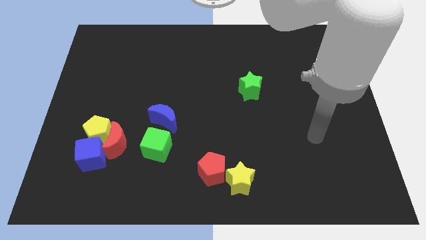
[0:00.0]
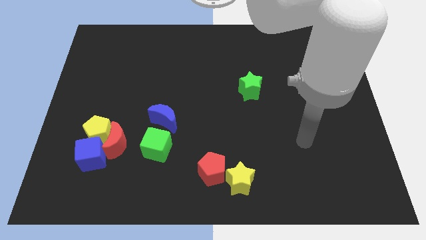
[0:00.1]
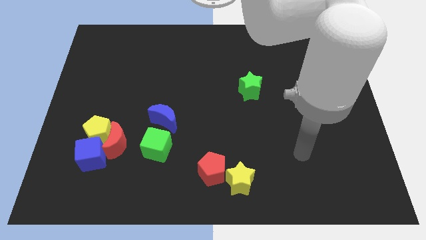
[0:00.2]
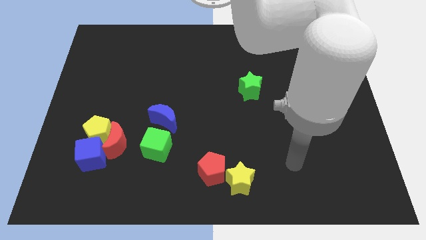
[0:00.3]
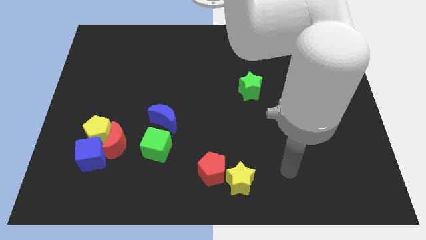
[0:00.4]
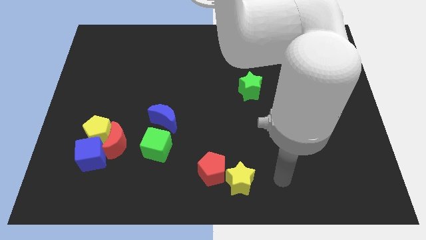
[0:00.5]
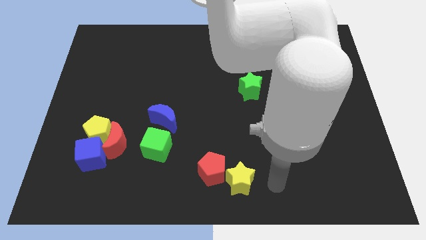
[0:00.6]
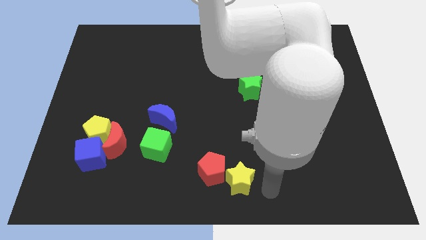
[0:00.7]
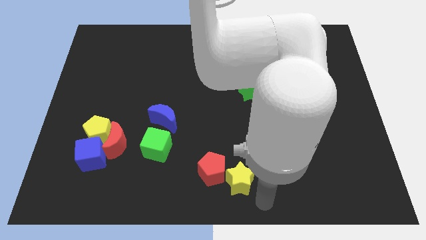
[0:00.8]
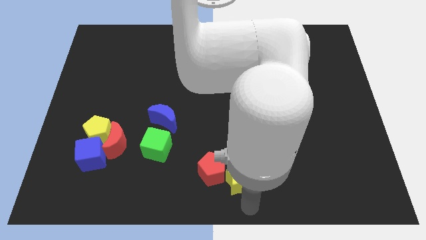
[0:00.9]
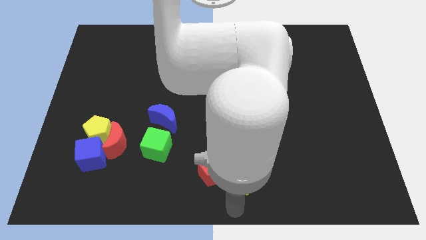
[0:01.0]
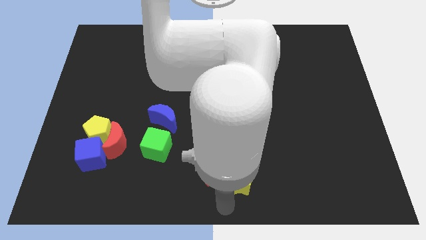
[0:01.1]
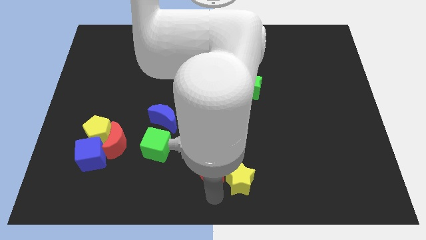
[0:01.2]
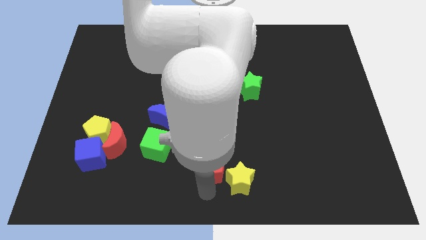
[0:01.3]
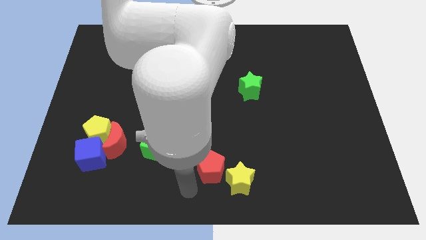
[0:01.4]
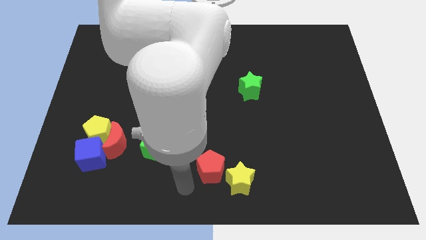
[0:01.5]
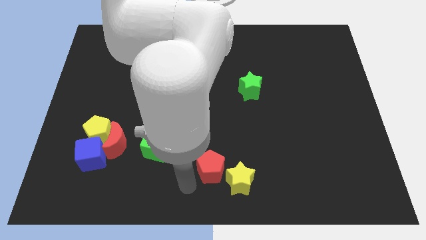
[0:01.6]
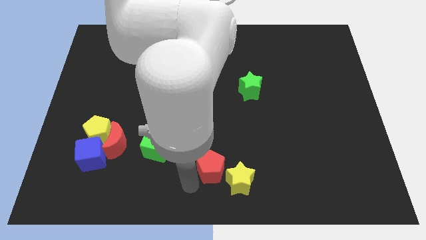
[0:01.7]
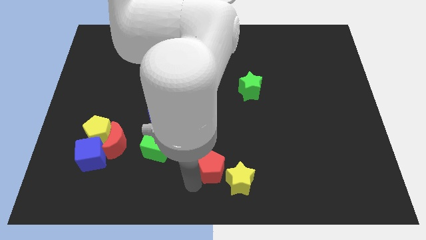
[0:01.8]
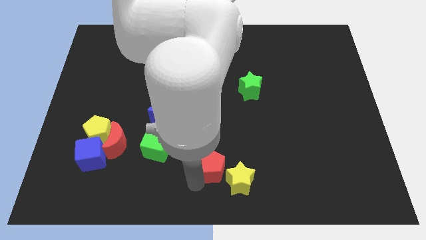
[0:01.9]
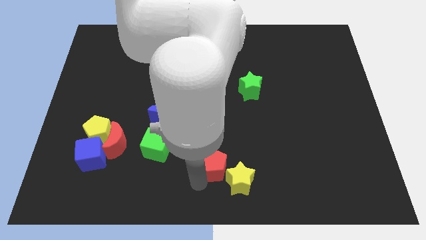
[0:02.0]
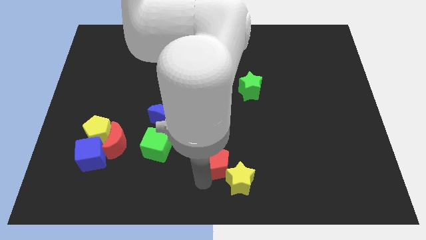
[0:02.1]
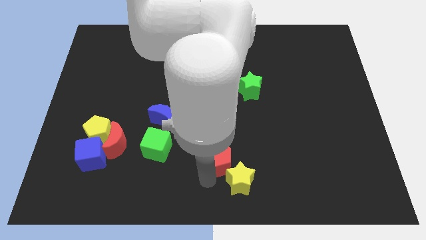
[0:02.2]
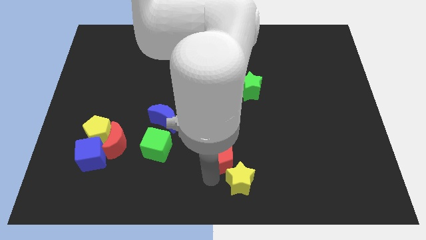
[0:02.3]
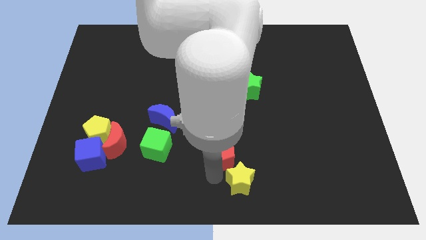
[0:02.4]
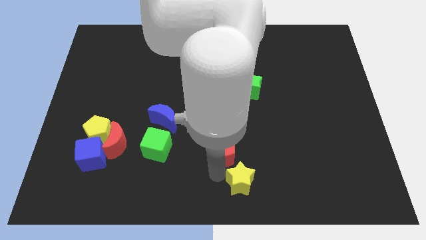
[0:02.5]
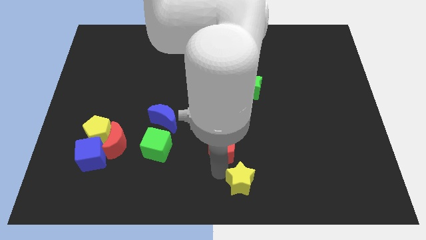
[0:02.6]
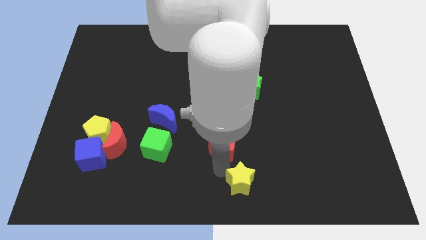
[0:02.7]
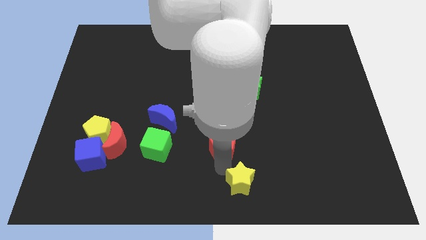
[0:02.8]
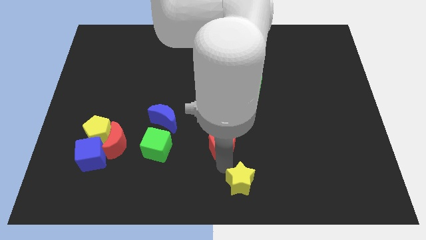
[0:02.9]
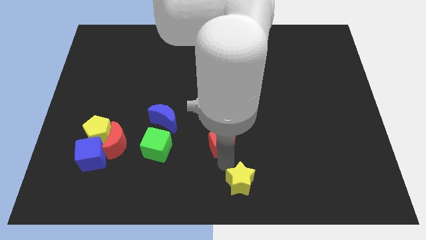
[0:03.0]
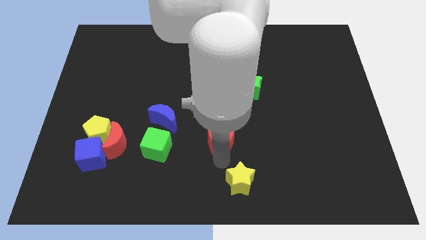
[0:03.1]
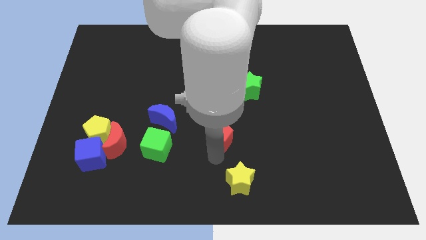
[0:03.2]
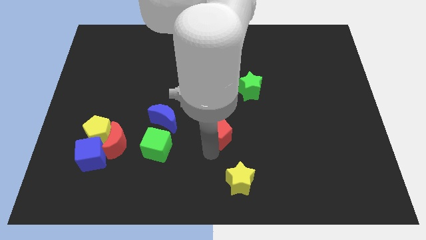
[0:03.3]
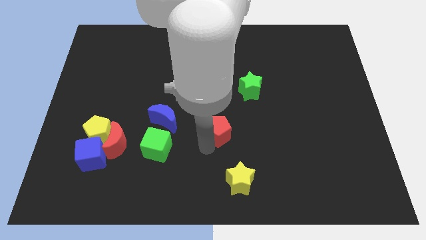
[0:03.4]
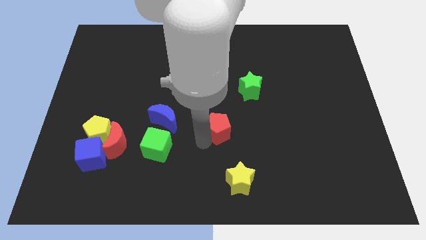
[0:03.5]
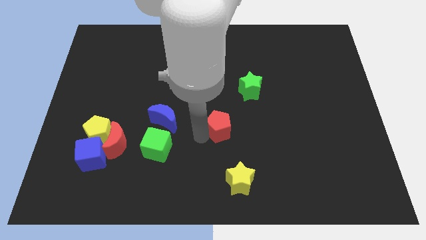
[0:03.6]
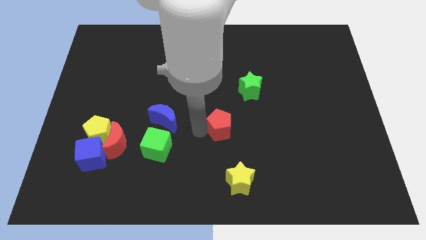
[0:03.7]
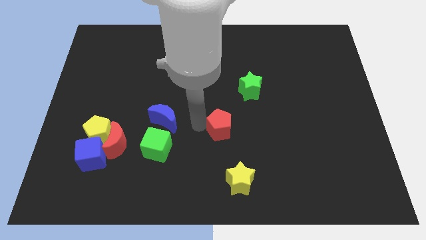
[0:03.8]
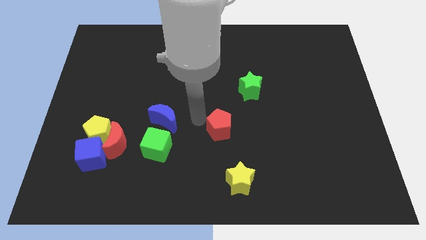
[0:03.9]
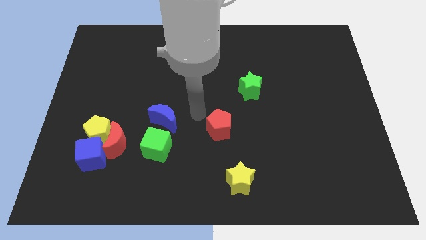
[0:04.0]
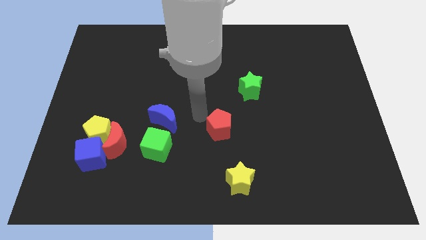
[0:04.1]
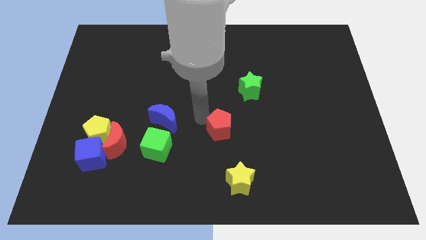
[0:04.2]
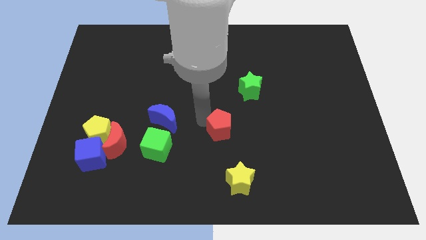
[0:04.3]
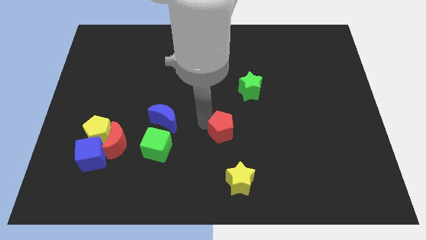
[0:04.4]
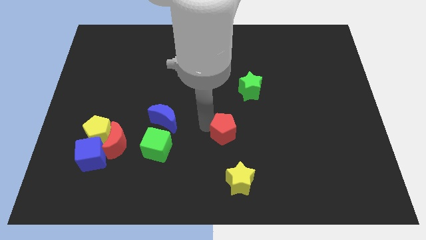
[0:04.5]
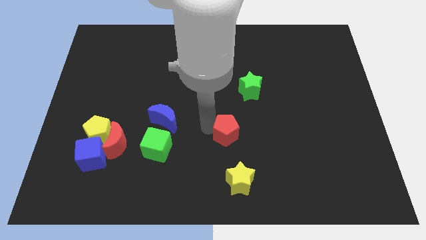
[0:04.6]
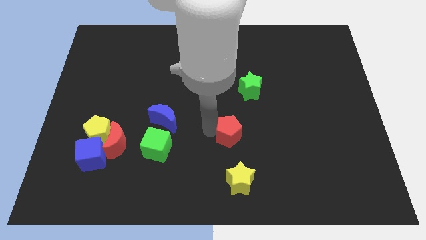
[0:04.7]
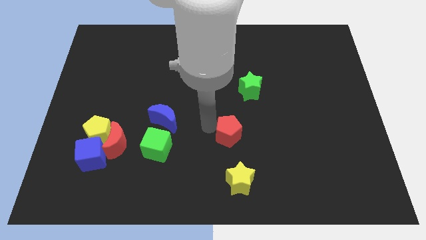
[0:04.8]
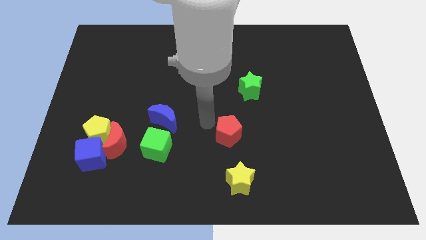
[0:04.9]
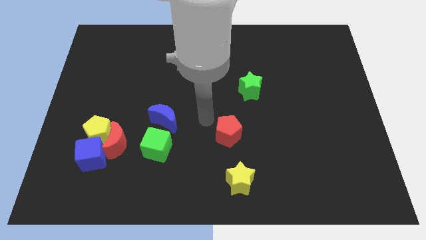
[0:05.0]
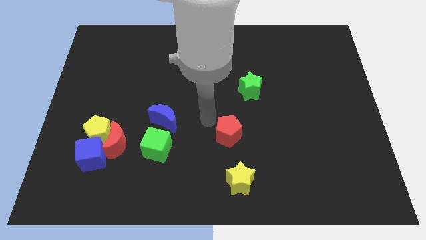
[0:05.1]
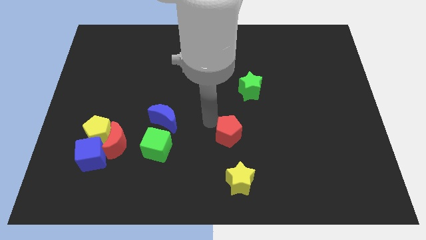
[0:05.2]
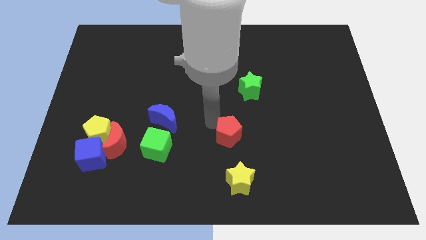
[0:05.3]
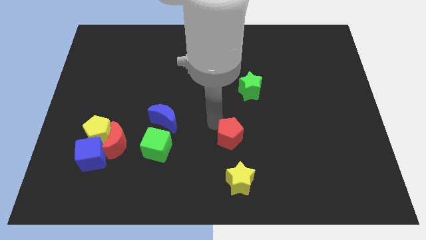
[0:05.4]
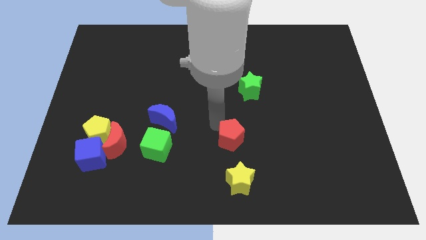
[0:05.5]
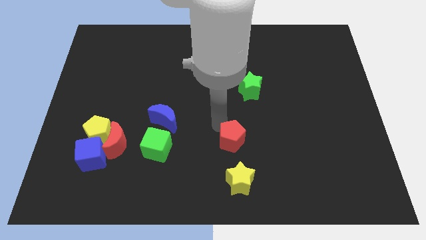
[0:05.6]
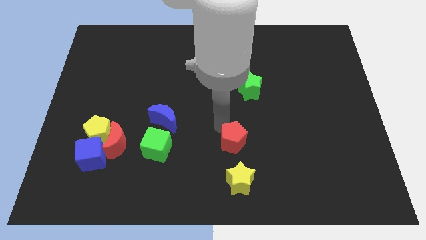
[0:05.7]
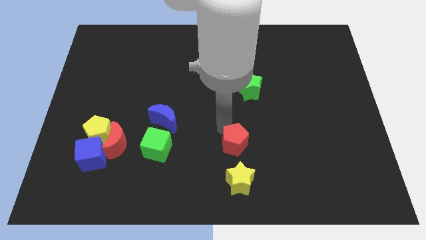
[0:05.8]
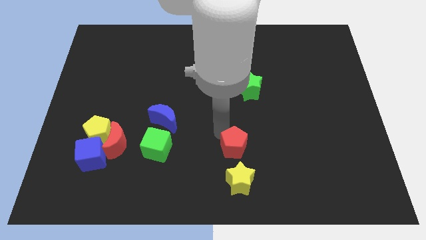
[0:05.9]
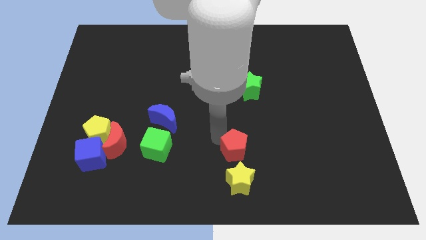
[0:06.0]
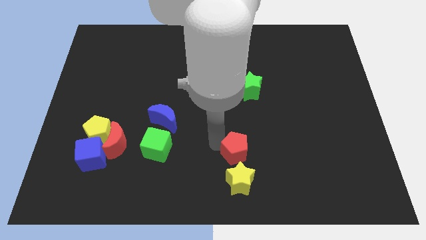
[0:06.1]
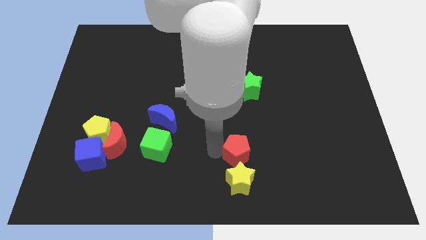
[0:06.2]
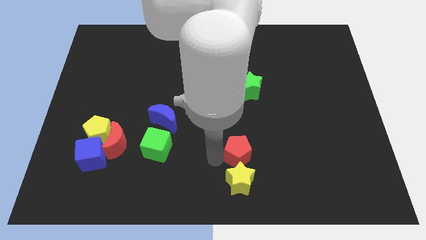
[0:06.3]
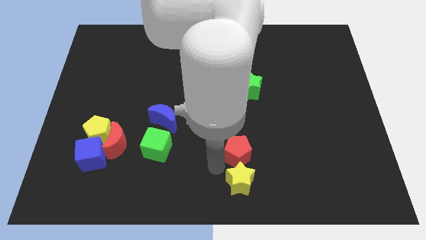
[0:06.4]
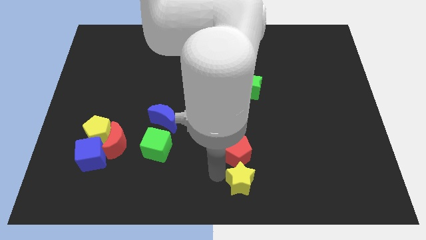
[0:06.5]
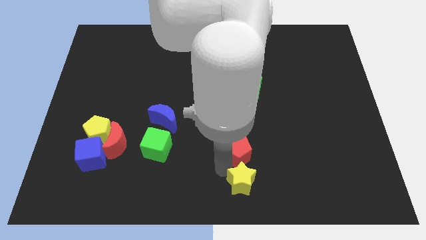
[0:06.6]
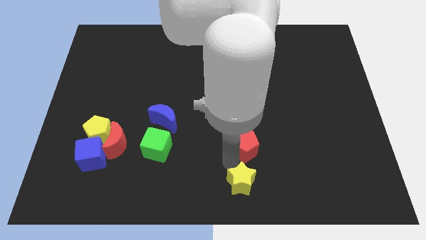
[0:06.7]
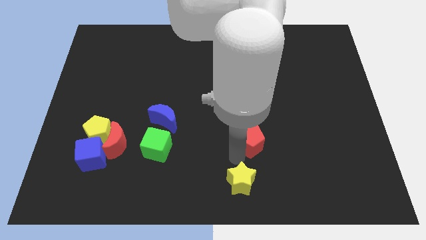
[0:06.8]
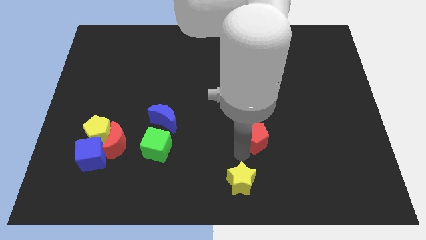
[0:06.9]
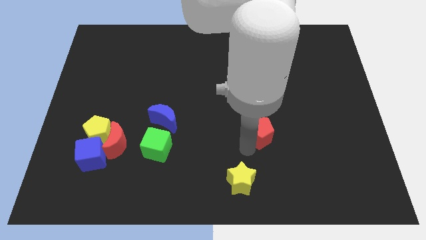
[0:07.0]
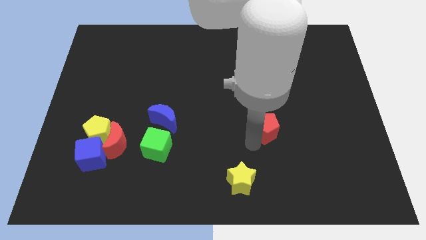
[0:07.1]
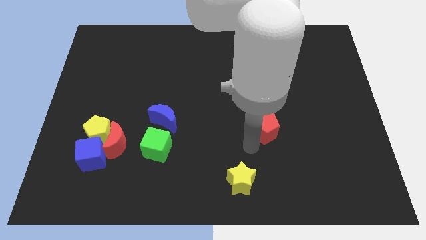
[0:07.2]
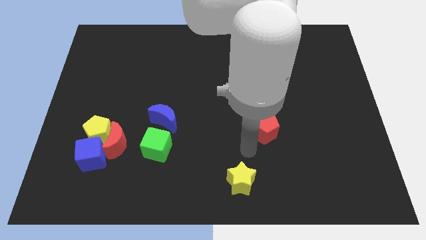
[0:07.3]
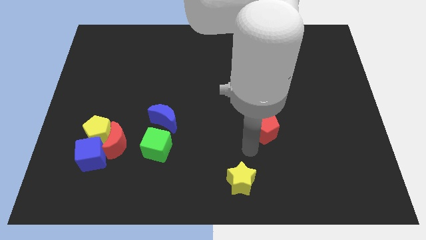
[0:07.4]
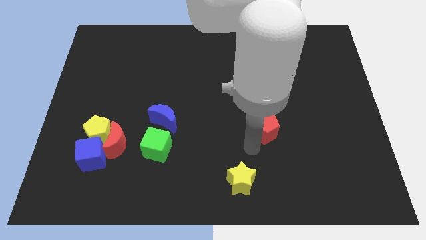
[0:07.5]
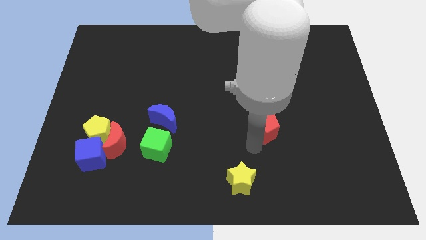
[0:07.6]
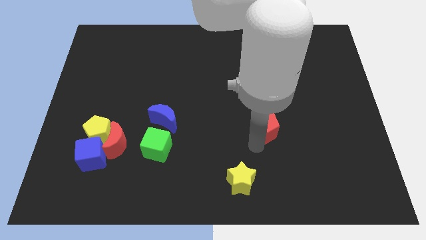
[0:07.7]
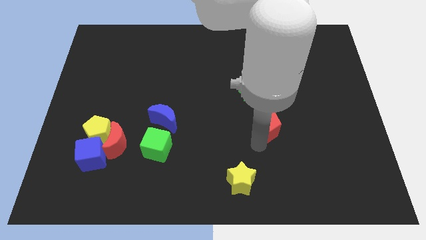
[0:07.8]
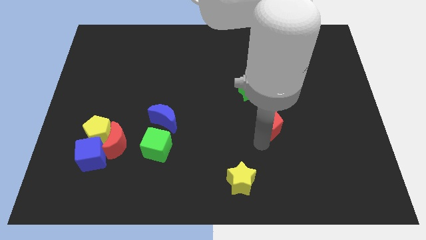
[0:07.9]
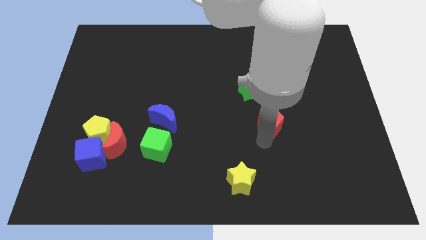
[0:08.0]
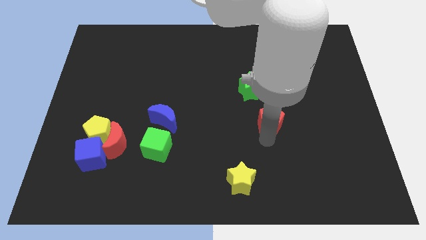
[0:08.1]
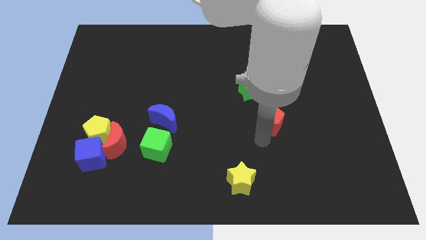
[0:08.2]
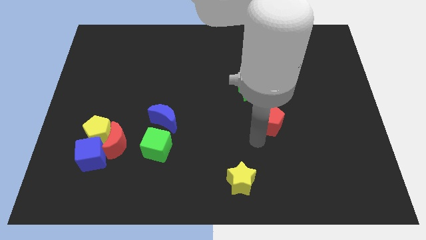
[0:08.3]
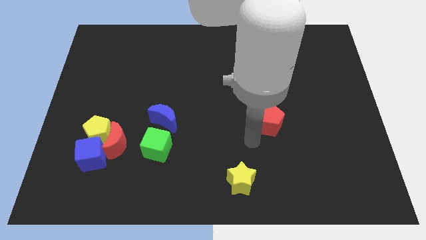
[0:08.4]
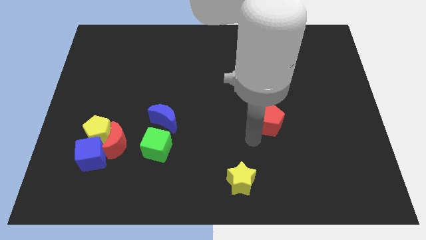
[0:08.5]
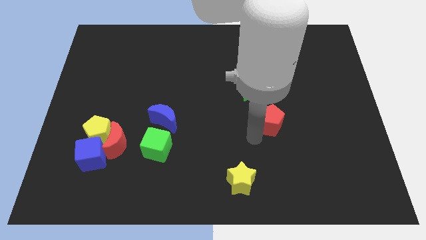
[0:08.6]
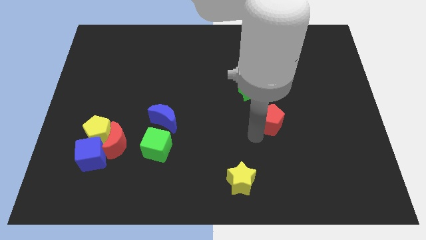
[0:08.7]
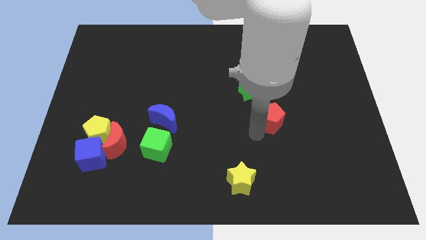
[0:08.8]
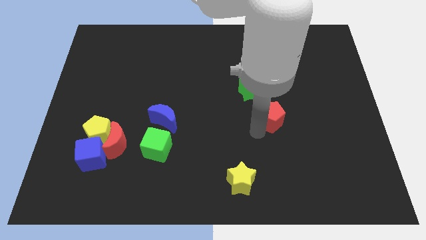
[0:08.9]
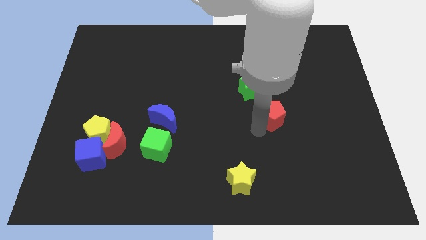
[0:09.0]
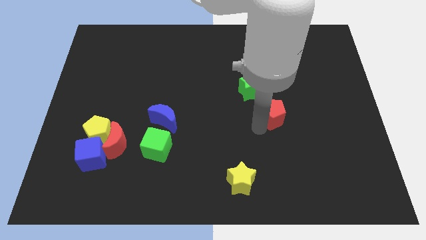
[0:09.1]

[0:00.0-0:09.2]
move the red pentagon diagonally up and to the right
